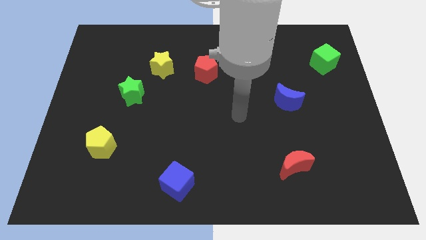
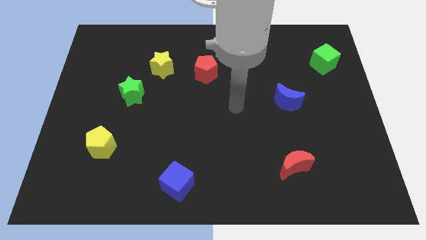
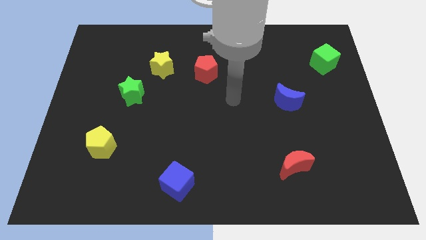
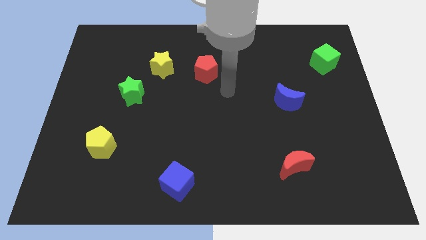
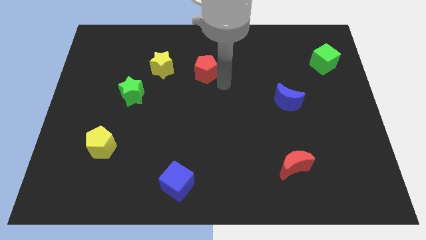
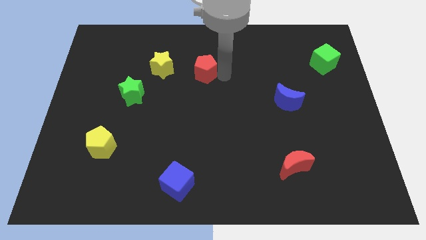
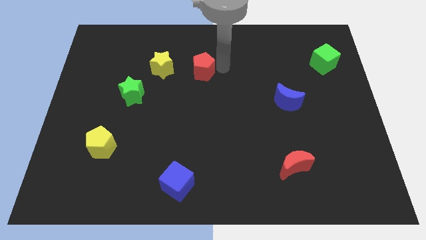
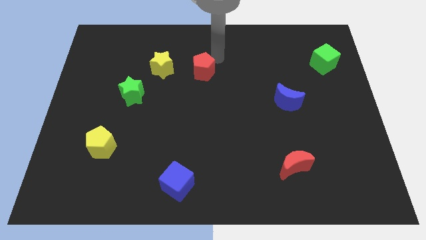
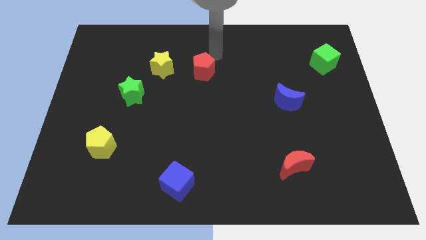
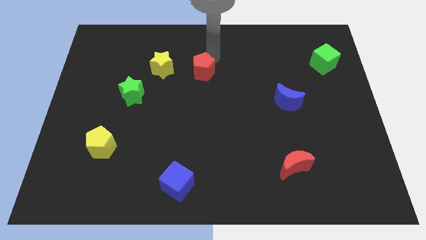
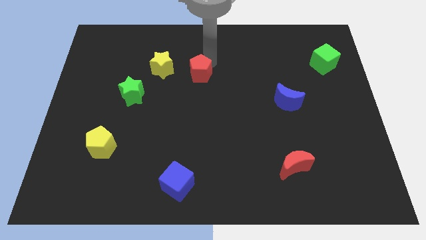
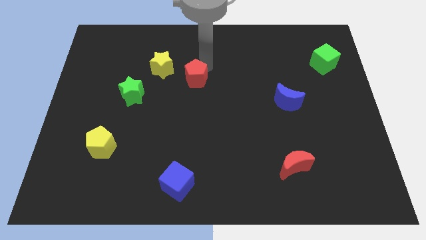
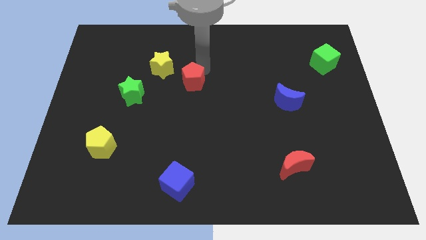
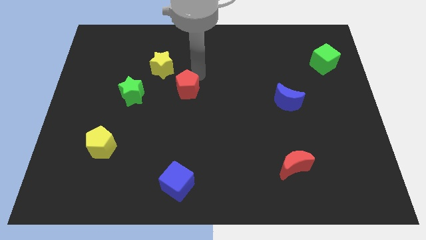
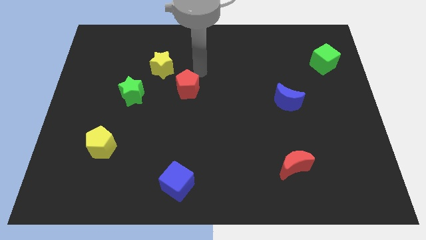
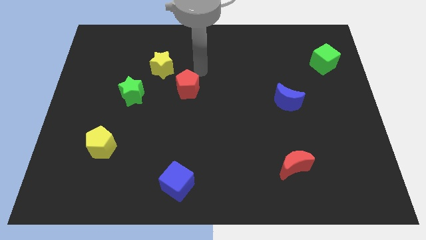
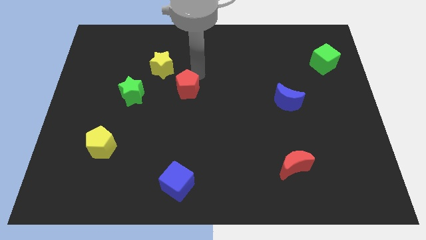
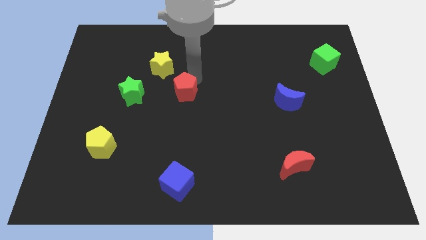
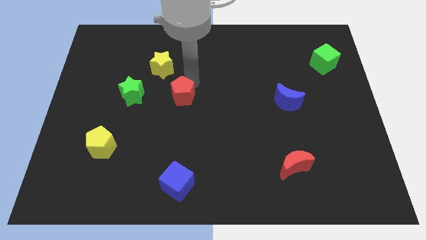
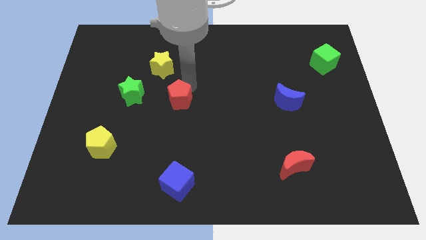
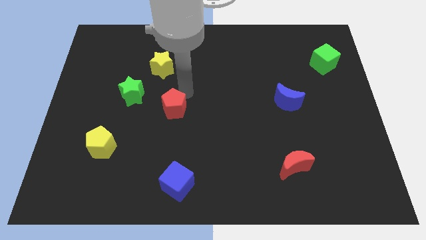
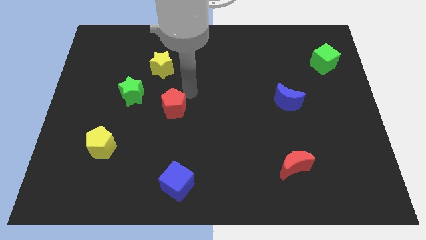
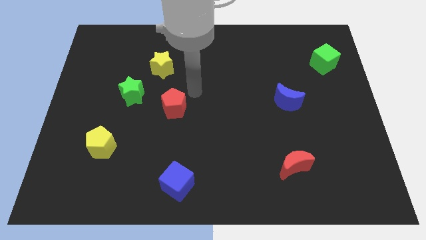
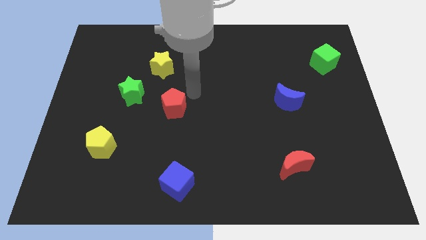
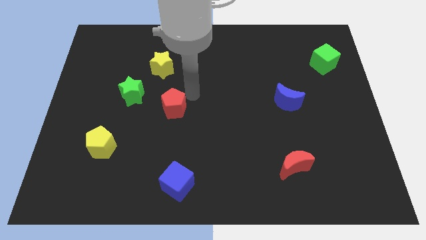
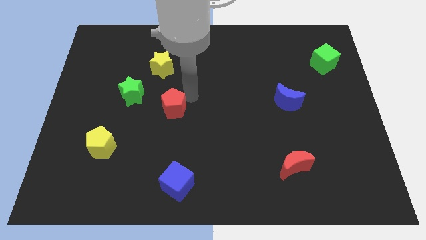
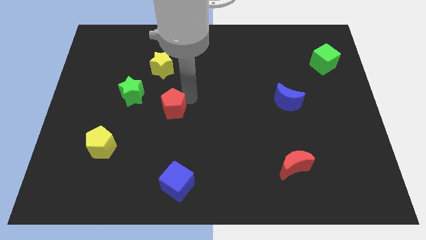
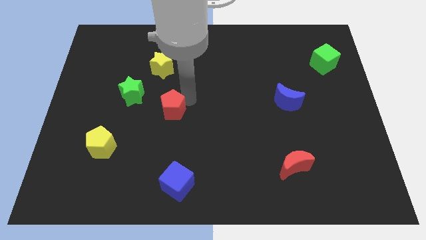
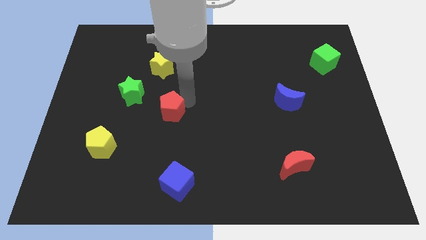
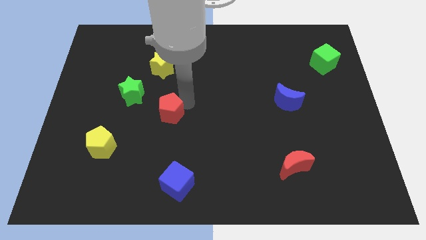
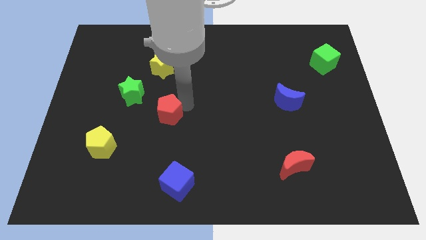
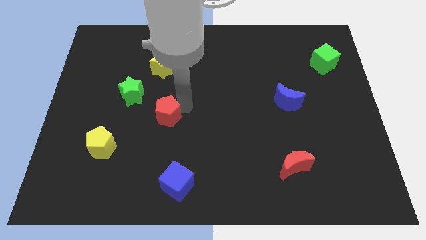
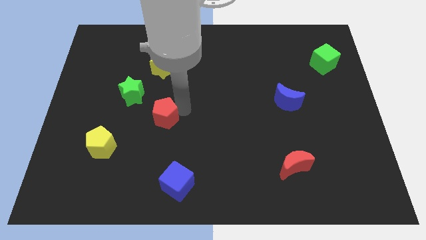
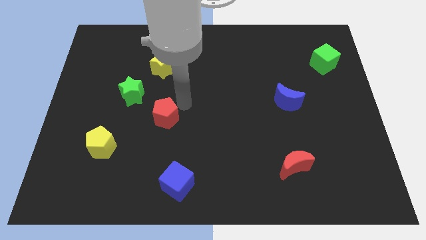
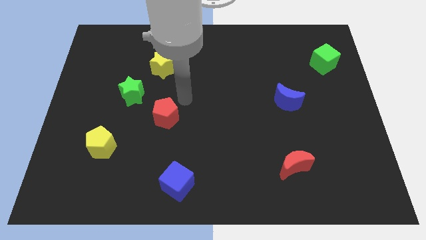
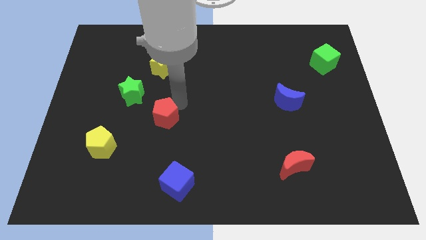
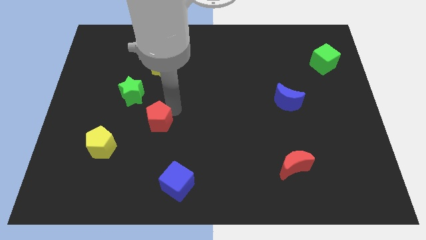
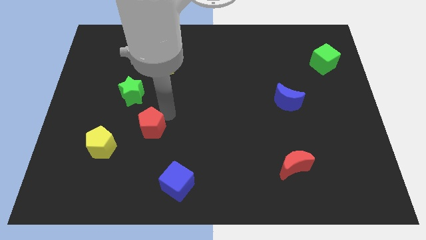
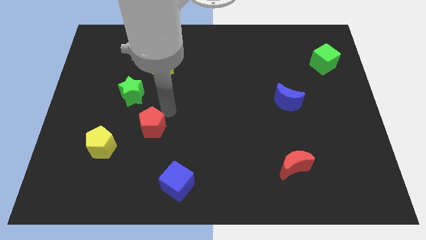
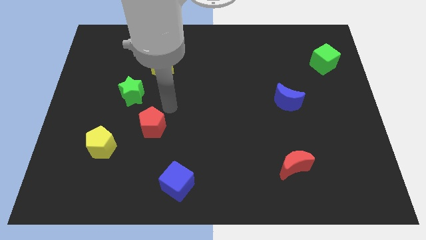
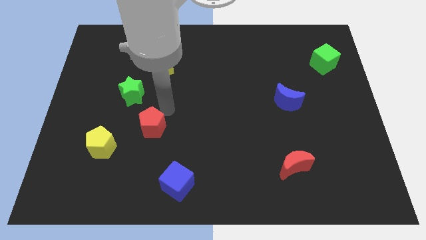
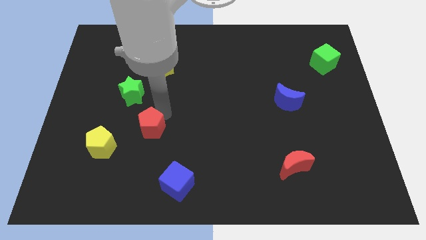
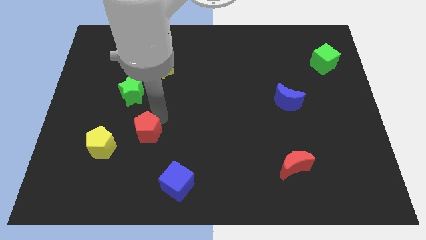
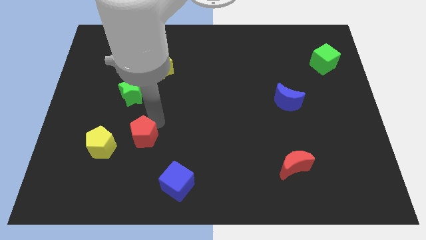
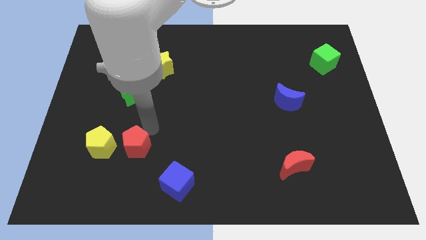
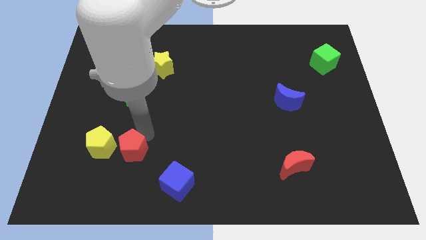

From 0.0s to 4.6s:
slide the red pentagon to the bottom right of the yellow pentagon

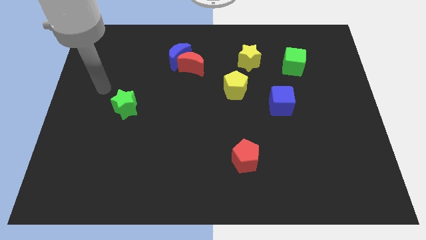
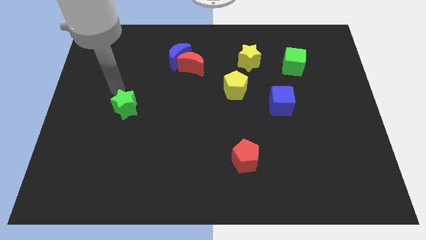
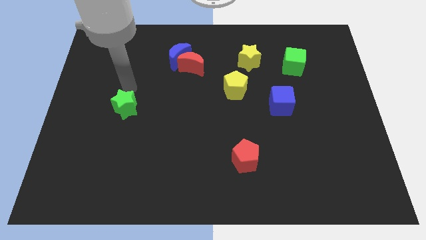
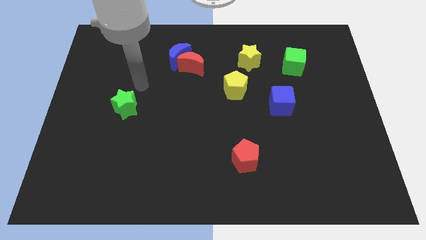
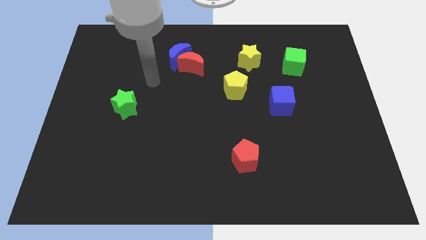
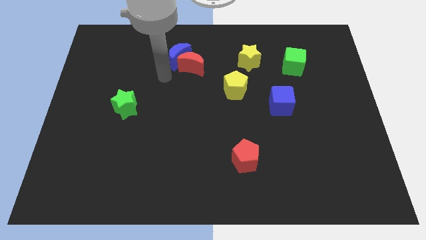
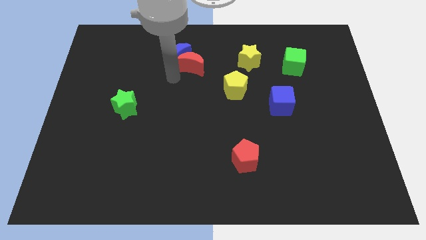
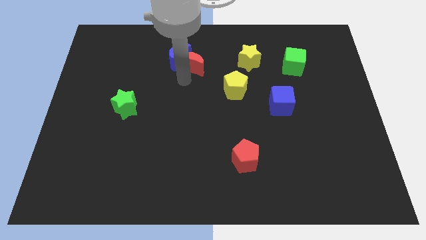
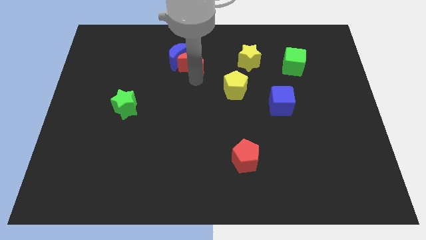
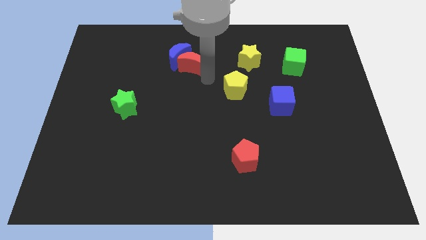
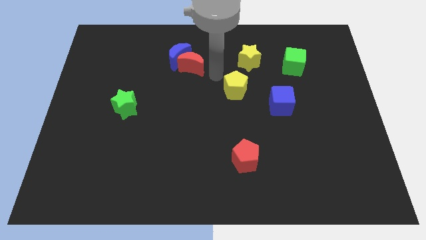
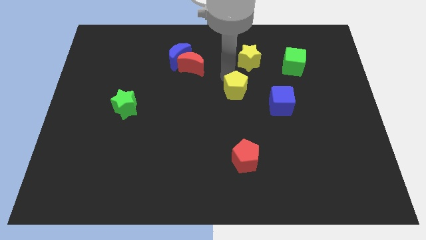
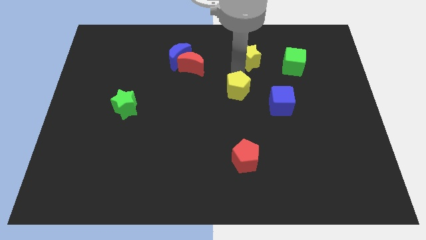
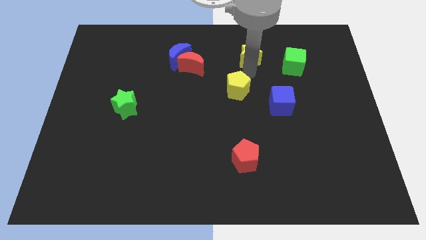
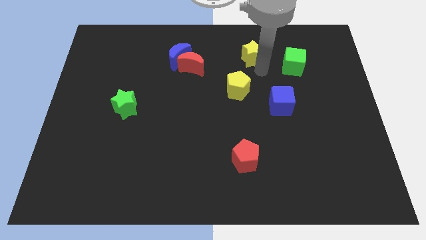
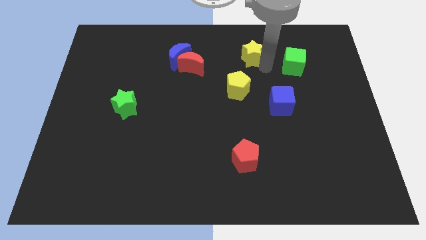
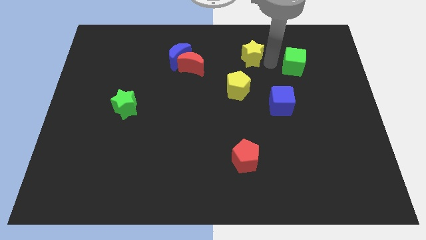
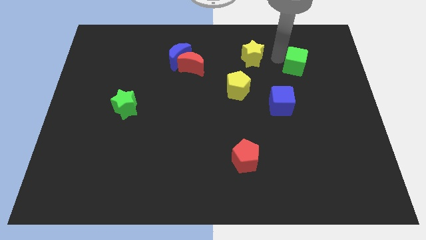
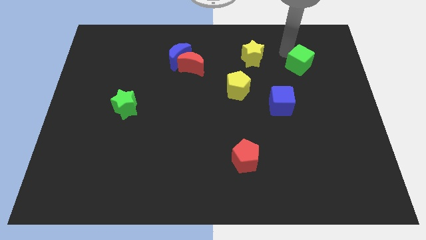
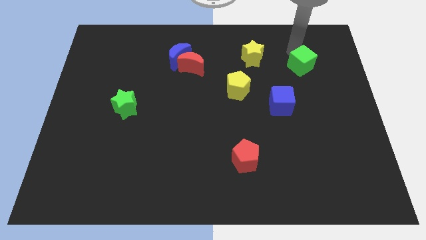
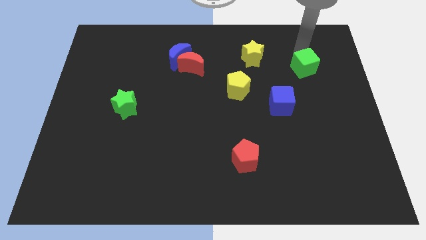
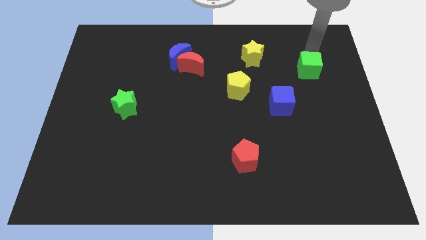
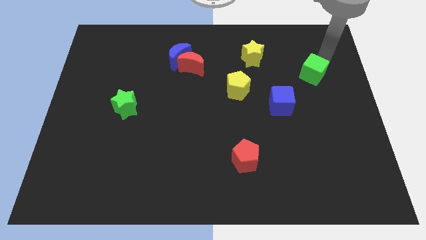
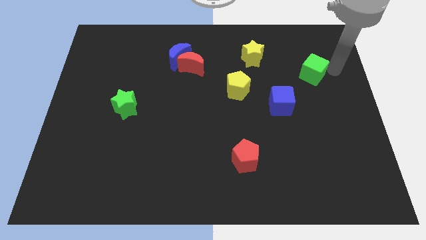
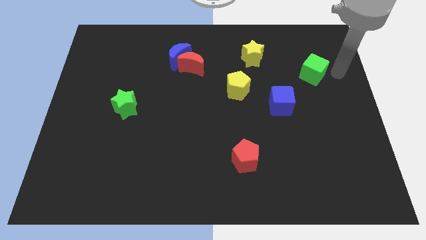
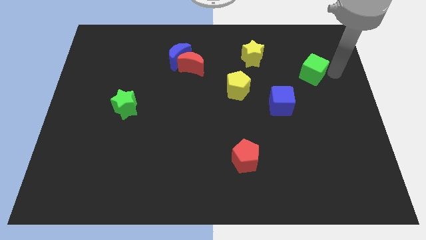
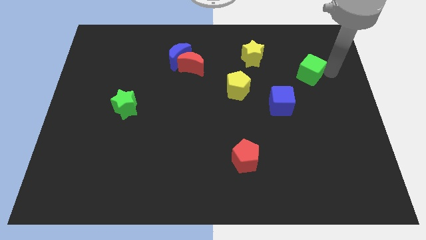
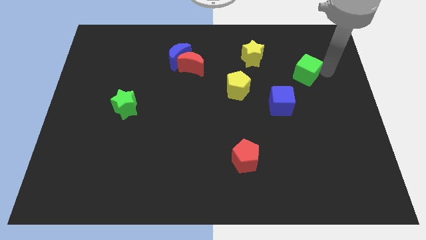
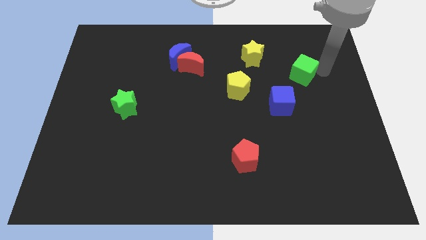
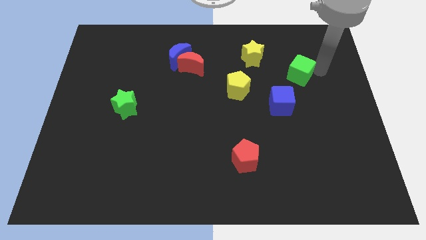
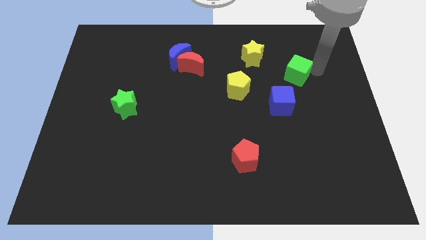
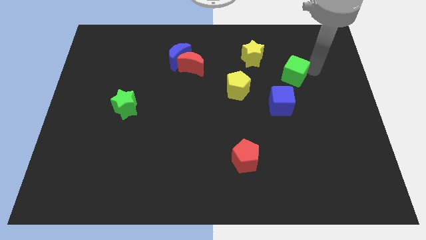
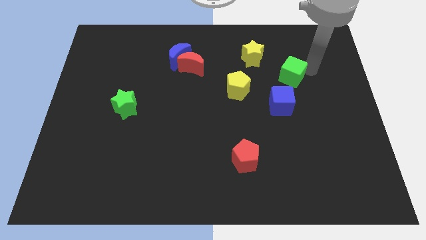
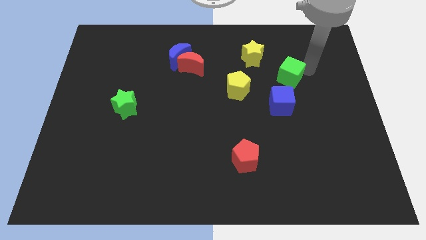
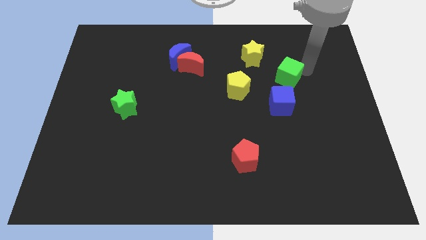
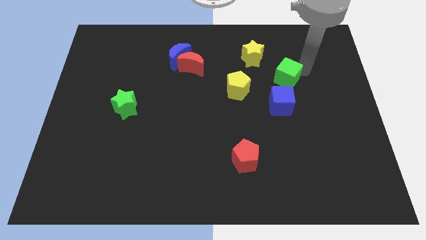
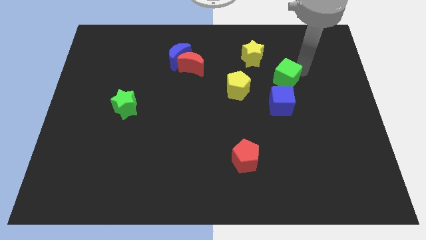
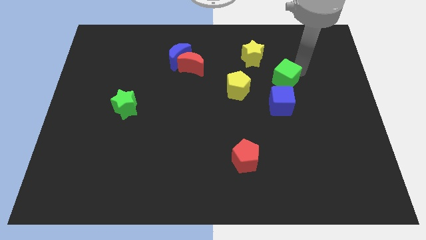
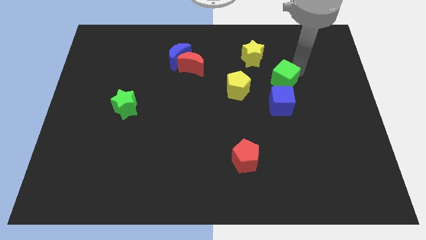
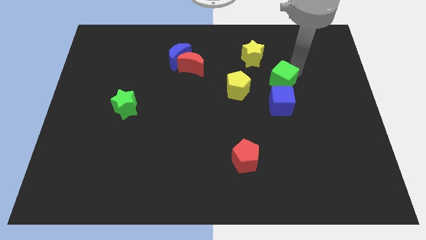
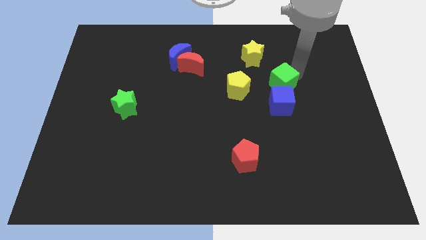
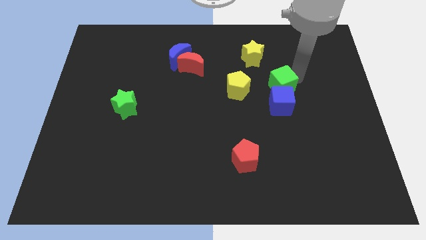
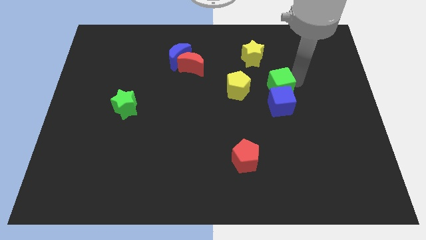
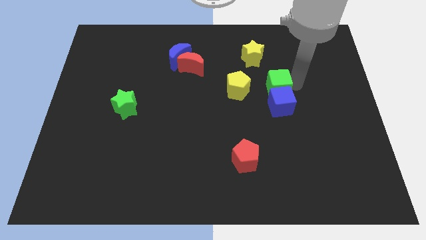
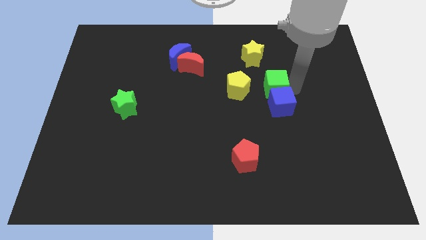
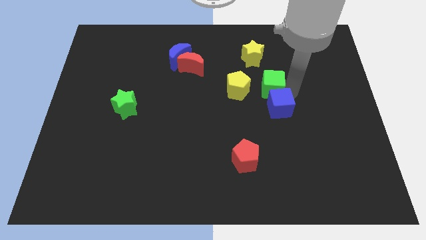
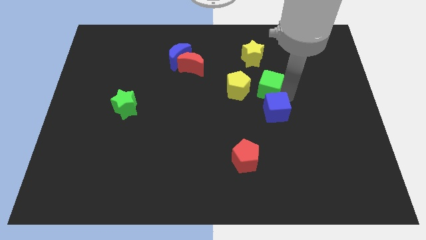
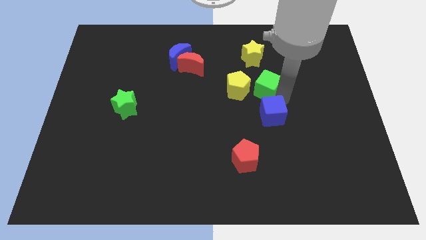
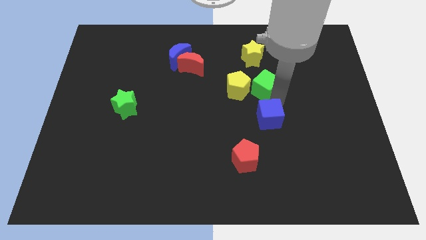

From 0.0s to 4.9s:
slide the green cube diagonally up and to the right of the yellow pentagon
